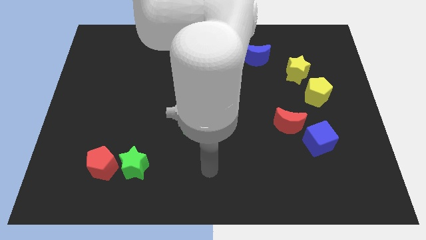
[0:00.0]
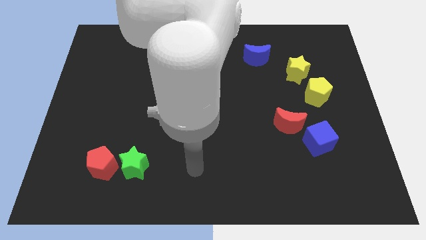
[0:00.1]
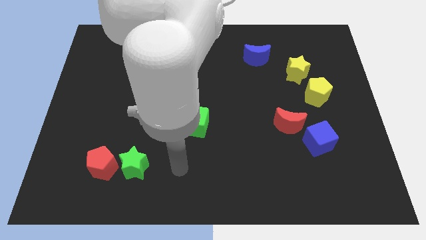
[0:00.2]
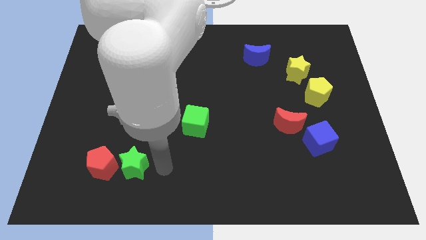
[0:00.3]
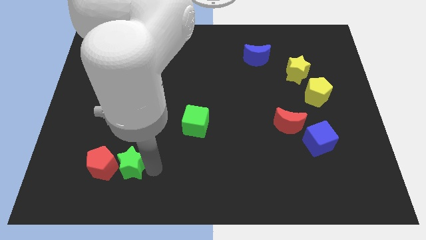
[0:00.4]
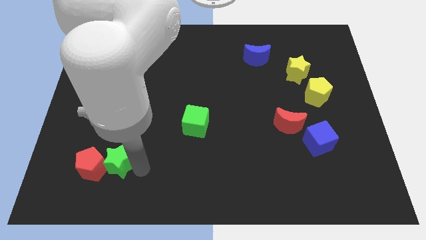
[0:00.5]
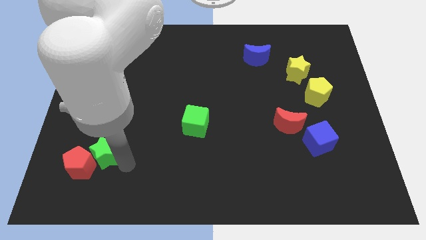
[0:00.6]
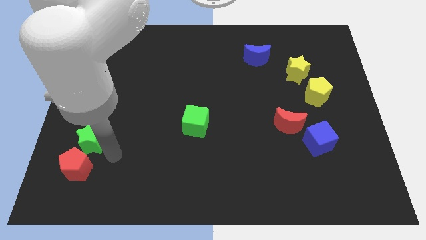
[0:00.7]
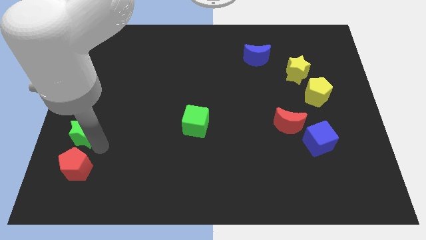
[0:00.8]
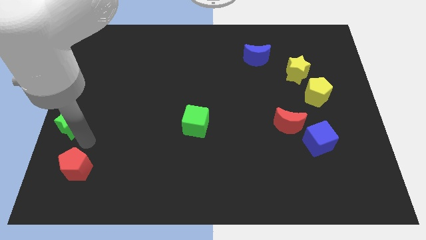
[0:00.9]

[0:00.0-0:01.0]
separate the red pentagon from the green star

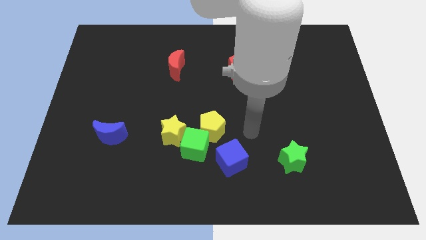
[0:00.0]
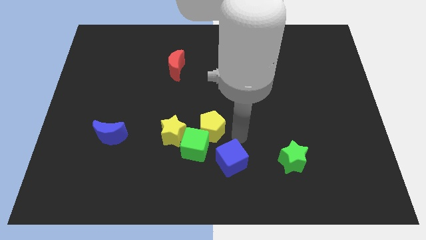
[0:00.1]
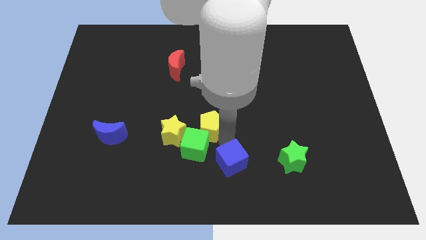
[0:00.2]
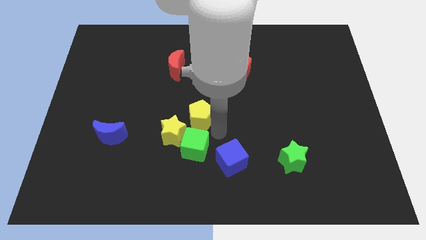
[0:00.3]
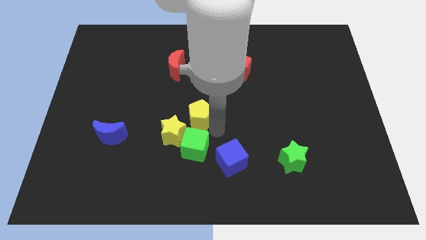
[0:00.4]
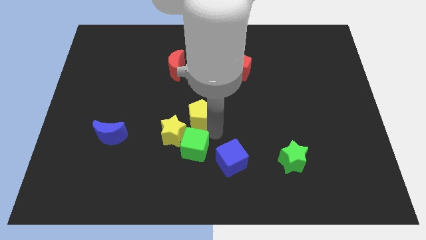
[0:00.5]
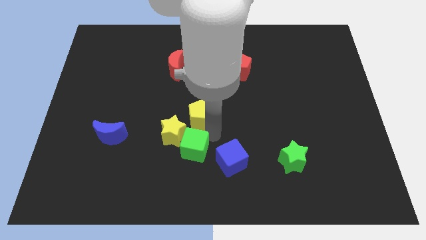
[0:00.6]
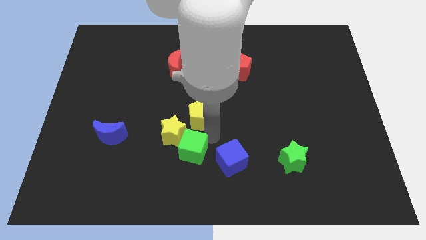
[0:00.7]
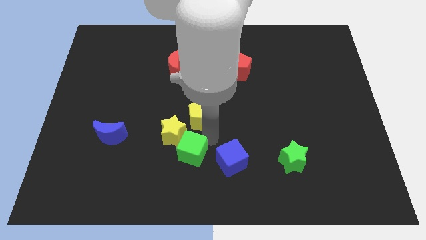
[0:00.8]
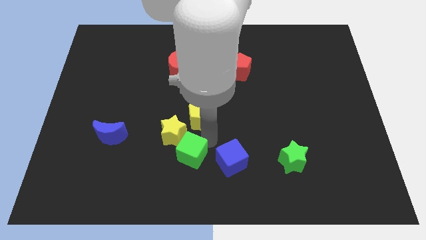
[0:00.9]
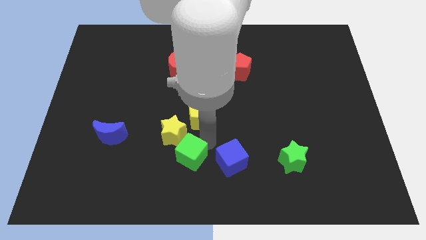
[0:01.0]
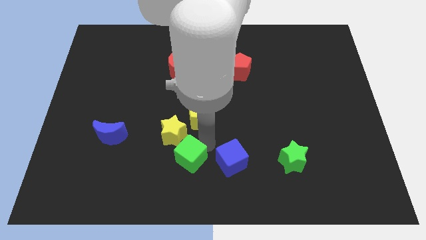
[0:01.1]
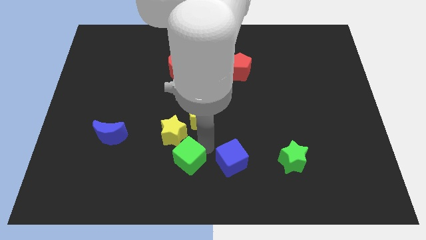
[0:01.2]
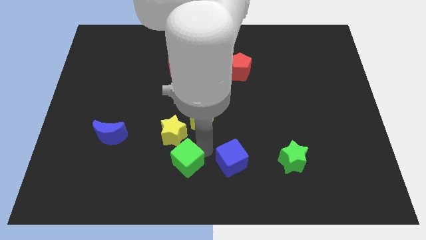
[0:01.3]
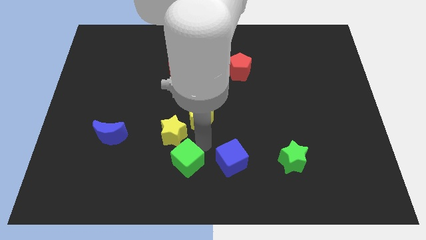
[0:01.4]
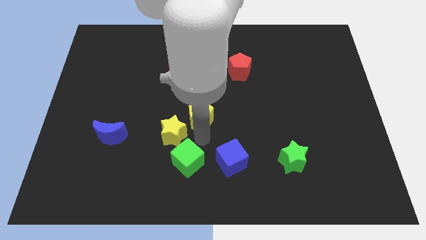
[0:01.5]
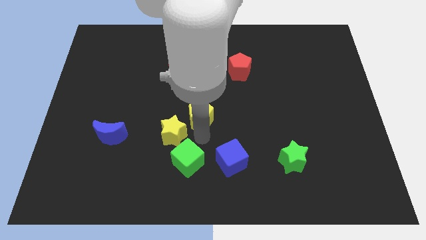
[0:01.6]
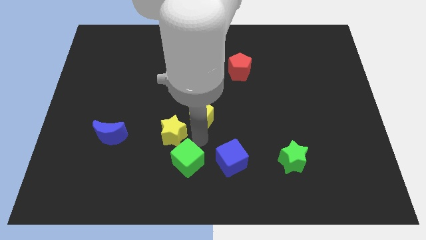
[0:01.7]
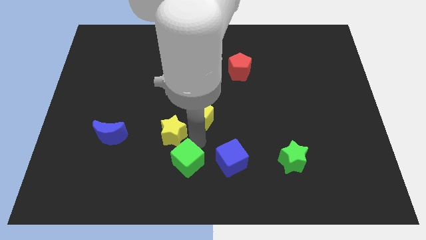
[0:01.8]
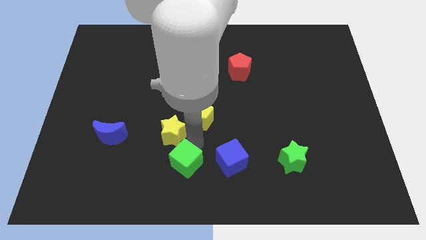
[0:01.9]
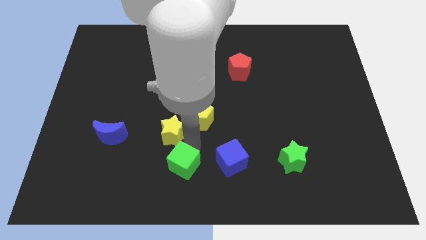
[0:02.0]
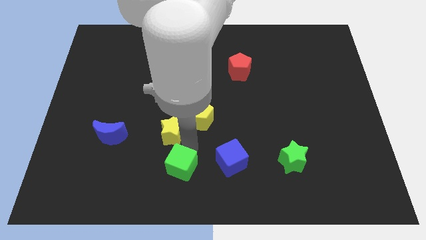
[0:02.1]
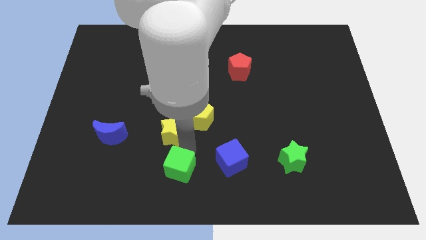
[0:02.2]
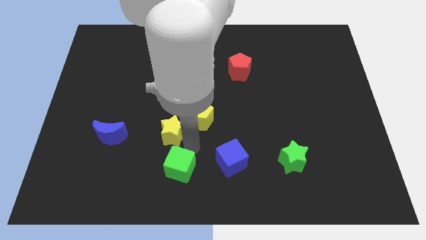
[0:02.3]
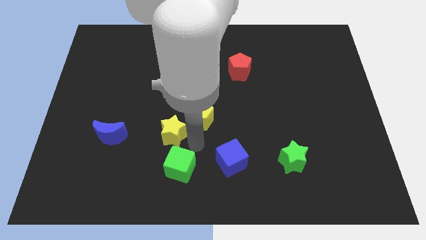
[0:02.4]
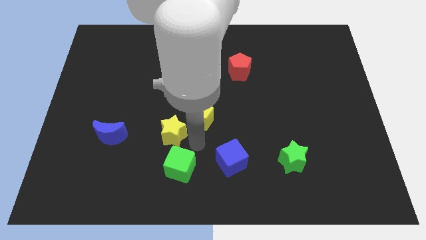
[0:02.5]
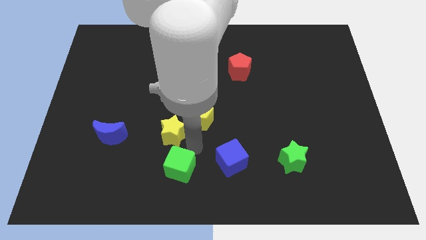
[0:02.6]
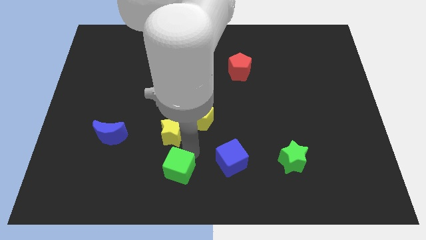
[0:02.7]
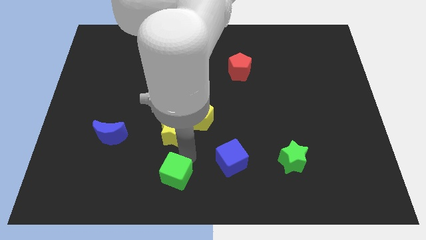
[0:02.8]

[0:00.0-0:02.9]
pull the green cube apart from the clump

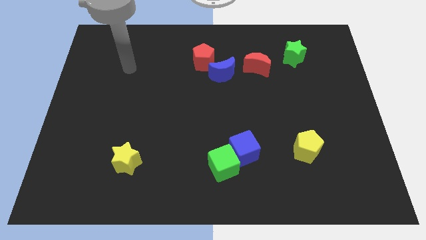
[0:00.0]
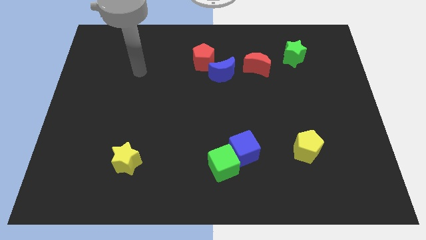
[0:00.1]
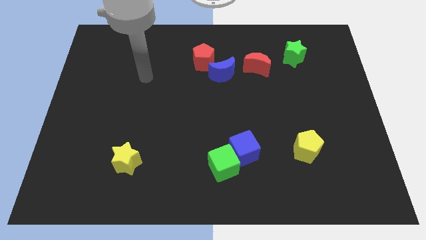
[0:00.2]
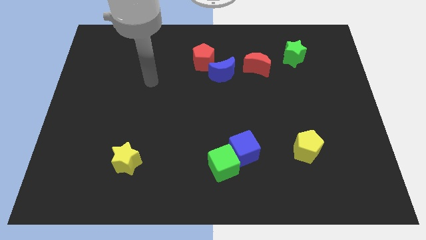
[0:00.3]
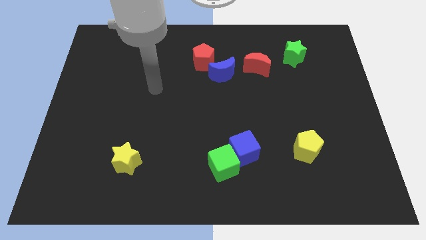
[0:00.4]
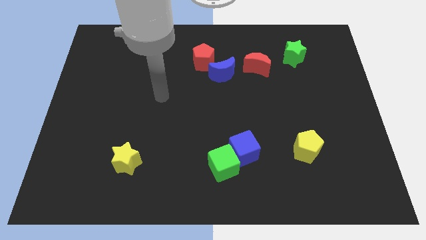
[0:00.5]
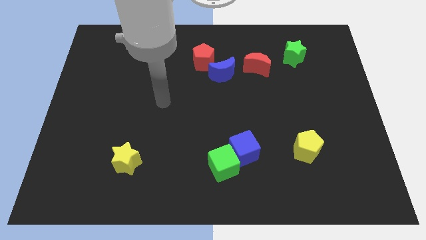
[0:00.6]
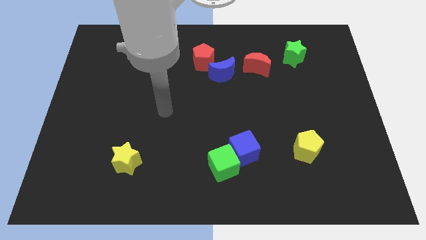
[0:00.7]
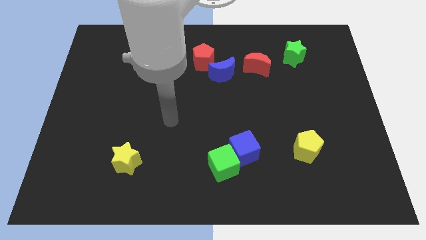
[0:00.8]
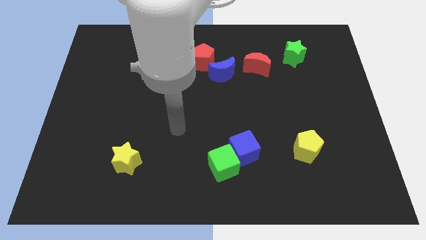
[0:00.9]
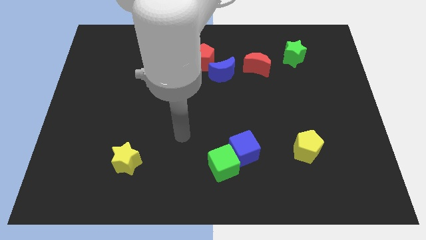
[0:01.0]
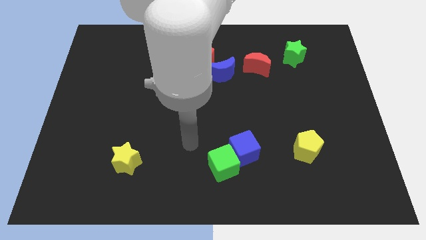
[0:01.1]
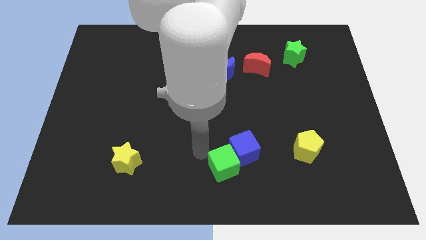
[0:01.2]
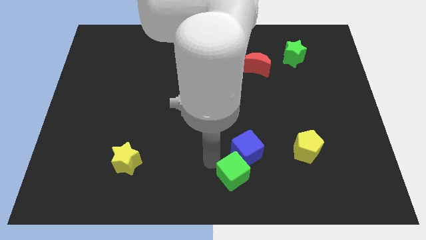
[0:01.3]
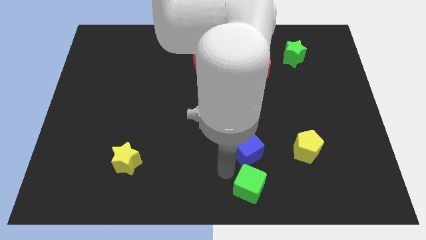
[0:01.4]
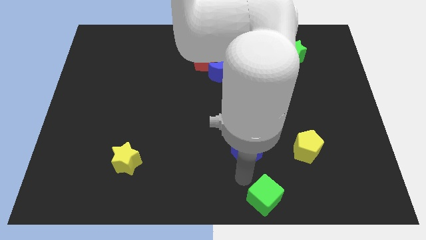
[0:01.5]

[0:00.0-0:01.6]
move the blue cube away from the green cube

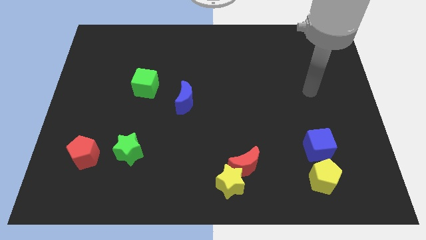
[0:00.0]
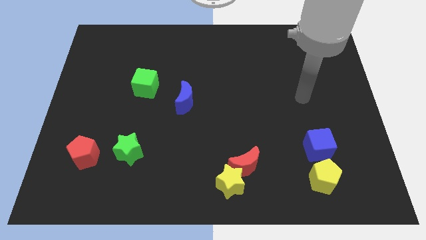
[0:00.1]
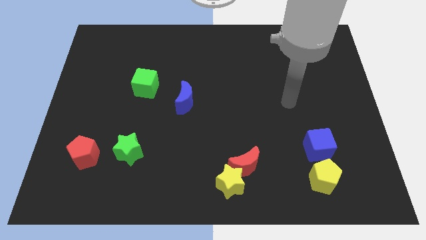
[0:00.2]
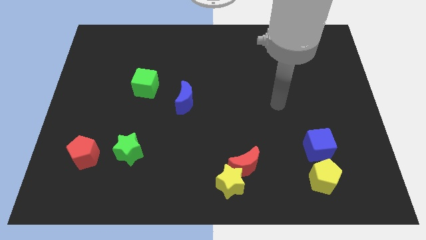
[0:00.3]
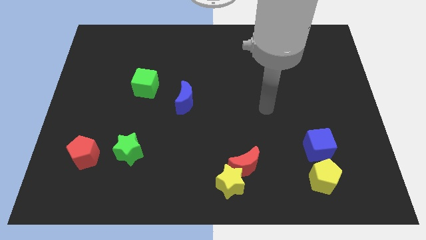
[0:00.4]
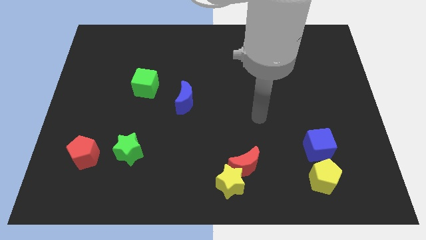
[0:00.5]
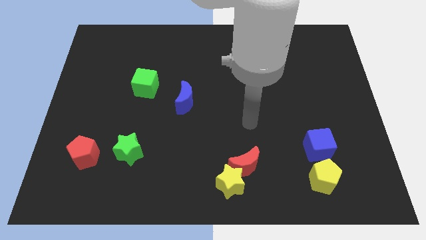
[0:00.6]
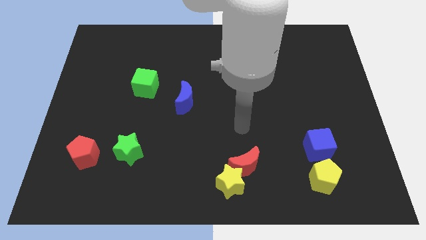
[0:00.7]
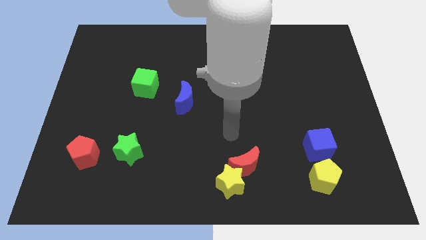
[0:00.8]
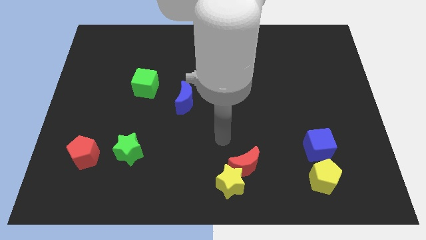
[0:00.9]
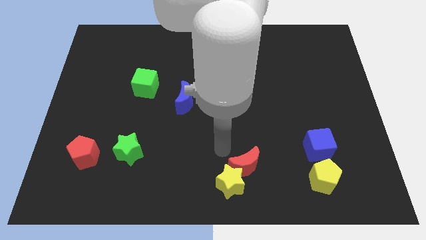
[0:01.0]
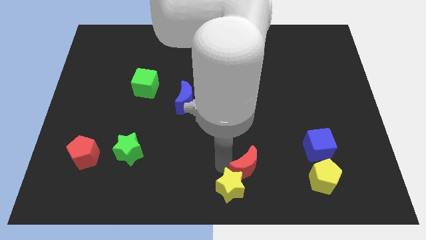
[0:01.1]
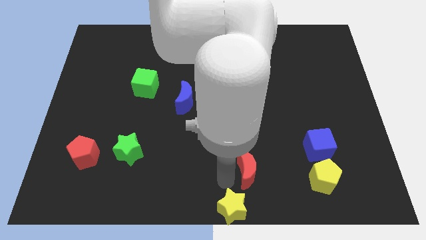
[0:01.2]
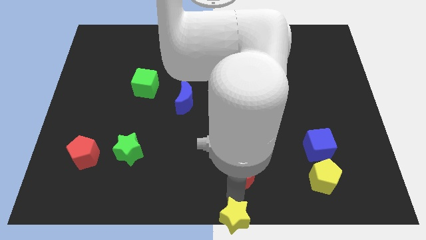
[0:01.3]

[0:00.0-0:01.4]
move the red moon away from the yellow star

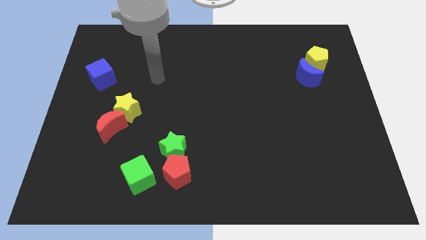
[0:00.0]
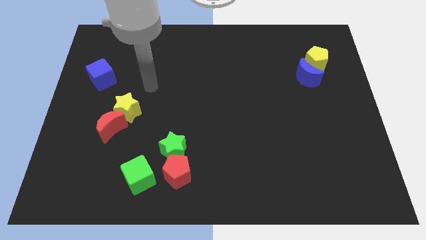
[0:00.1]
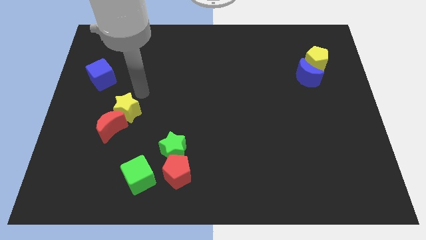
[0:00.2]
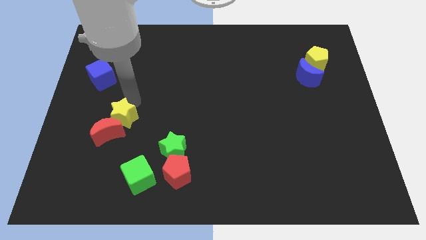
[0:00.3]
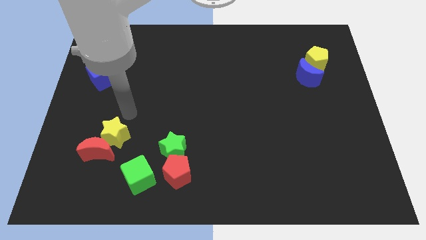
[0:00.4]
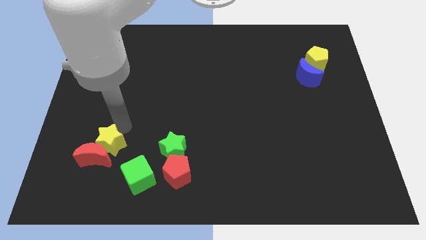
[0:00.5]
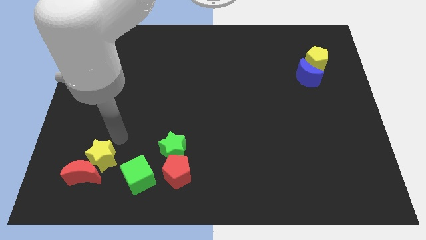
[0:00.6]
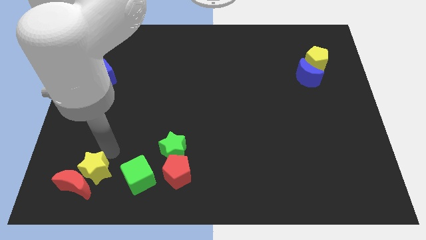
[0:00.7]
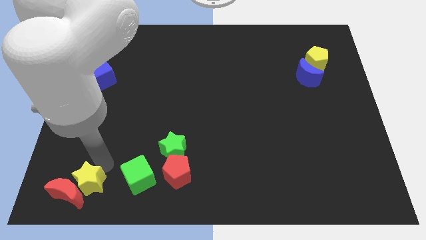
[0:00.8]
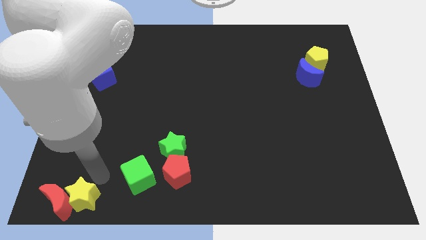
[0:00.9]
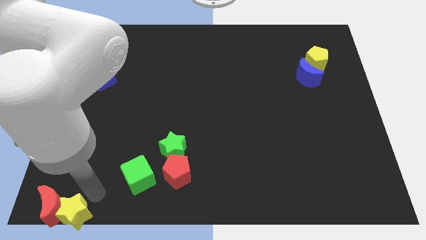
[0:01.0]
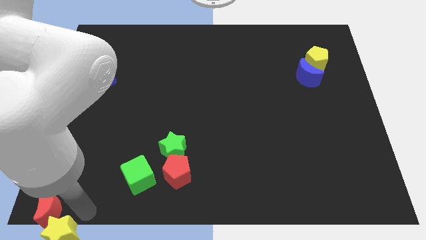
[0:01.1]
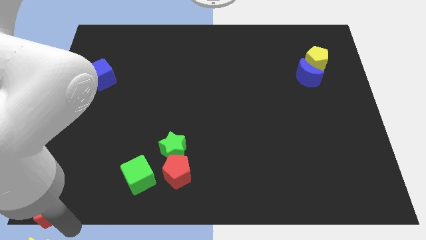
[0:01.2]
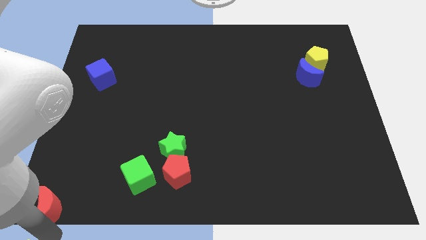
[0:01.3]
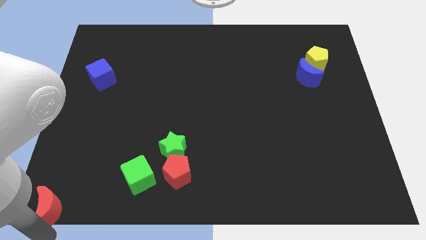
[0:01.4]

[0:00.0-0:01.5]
pull the red moon apart from the yellow star

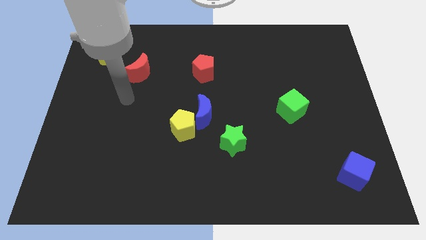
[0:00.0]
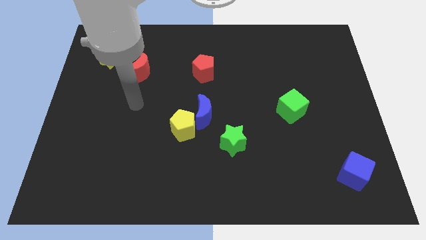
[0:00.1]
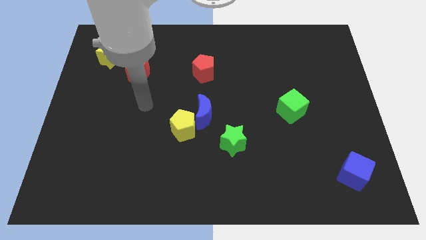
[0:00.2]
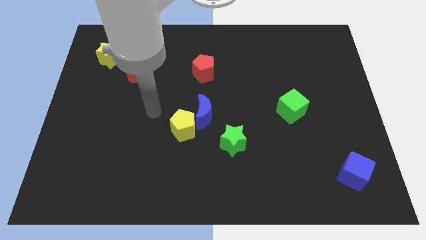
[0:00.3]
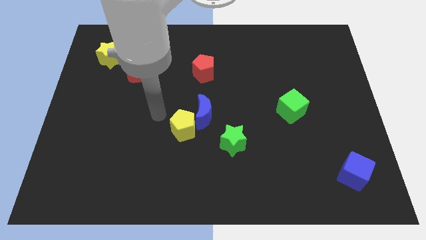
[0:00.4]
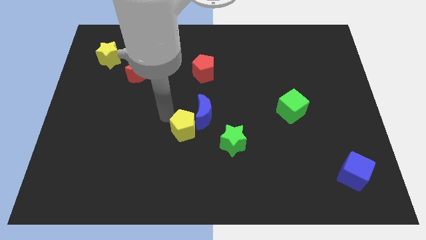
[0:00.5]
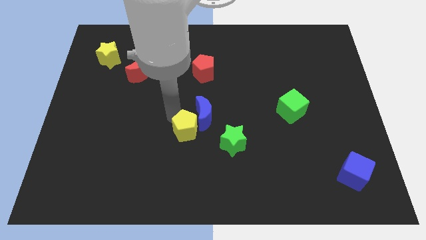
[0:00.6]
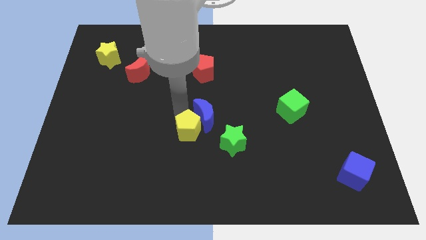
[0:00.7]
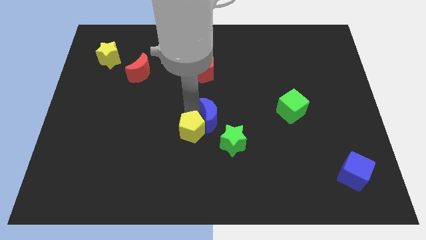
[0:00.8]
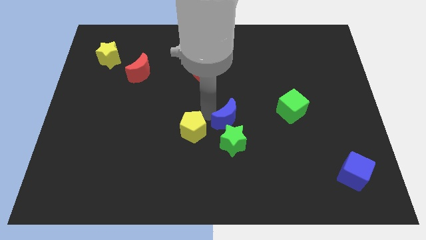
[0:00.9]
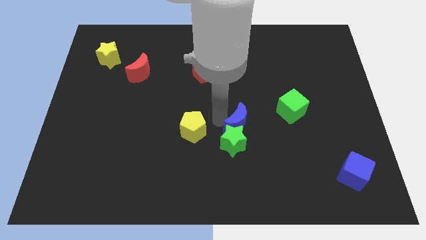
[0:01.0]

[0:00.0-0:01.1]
separate the yellow pentagon from the blue moon

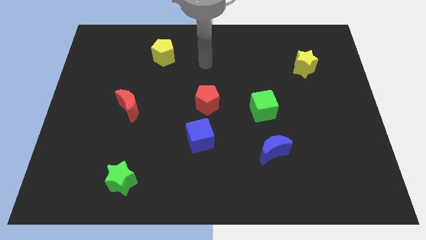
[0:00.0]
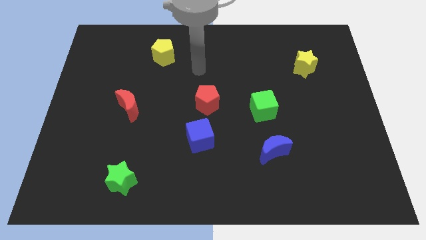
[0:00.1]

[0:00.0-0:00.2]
separate the red pentagon from the blue cube
